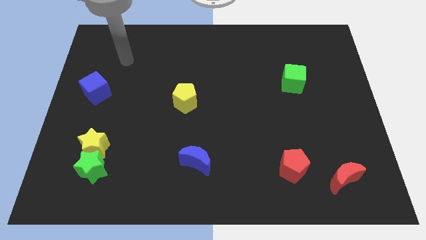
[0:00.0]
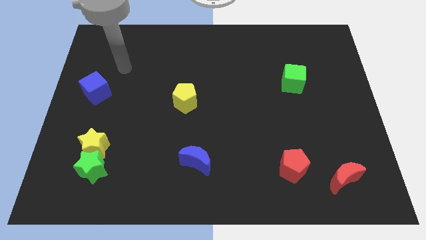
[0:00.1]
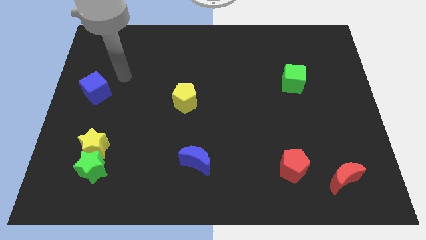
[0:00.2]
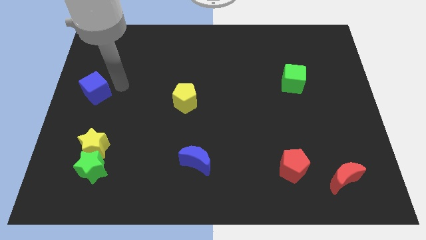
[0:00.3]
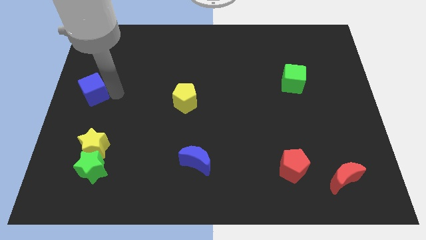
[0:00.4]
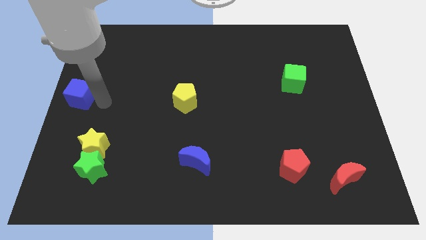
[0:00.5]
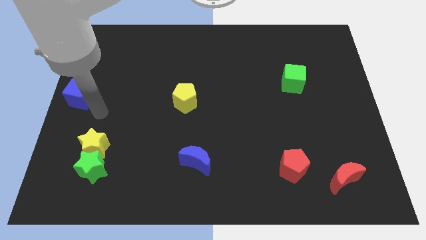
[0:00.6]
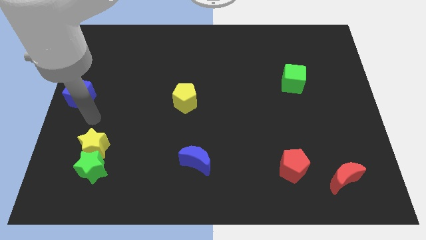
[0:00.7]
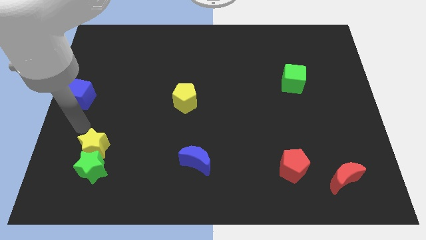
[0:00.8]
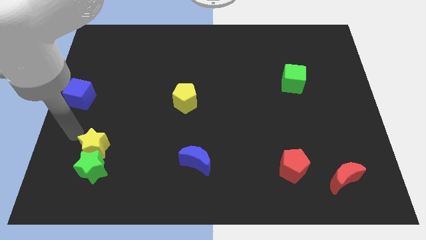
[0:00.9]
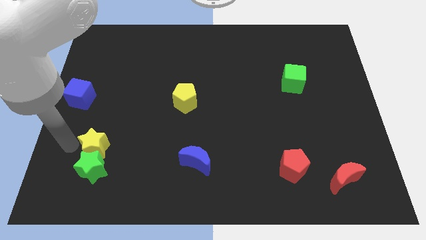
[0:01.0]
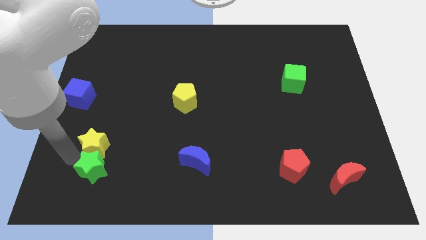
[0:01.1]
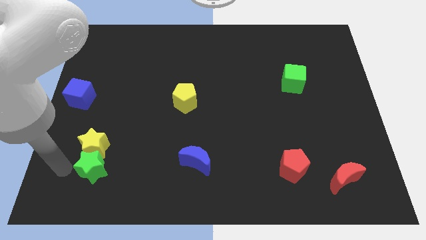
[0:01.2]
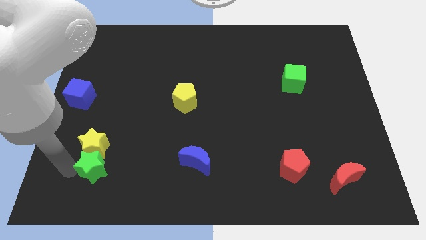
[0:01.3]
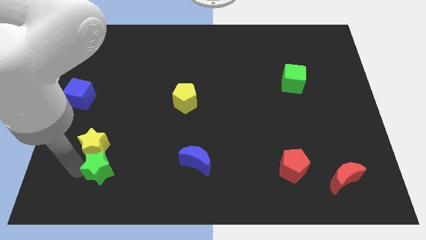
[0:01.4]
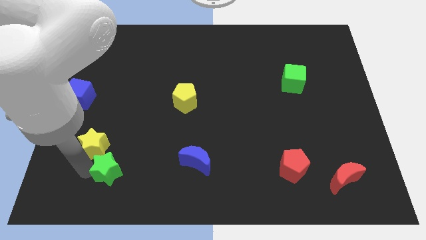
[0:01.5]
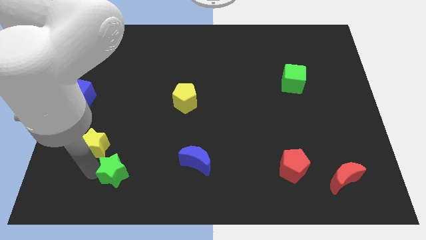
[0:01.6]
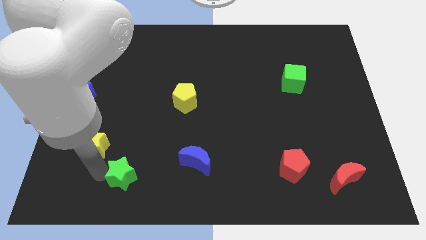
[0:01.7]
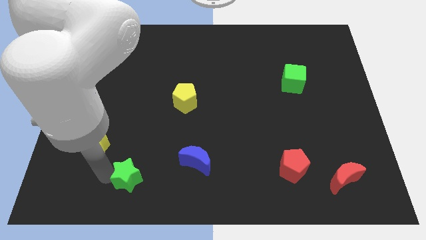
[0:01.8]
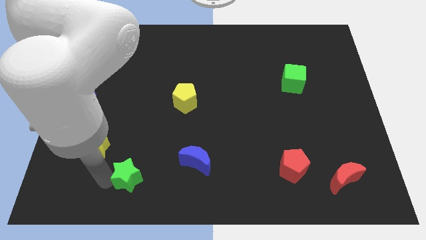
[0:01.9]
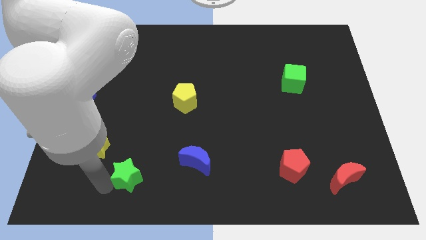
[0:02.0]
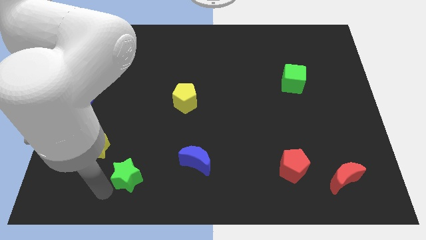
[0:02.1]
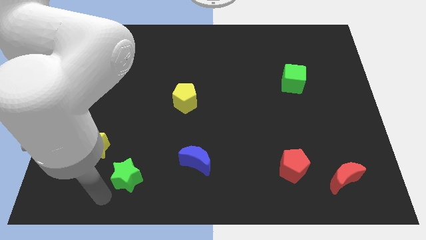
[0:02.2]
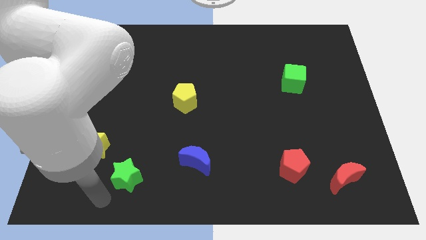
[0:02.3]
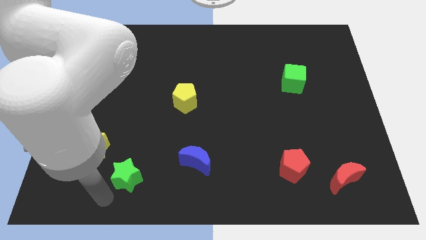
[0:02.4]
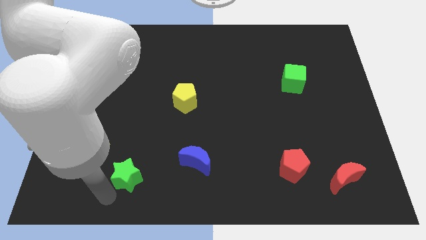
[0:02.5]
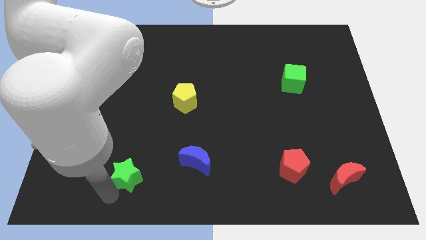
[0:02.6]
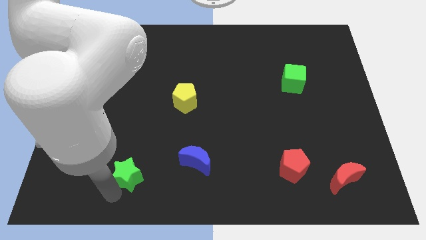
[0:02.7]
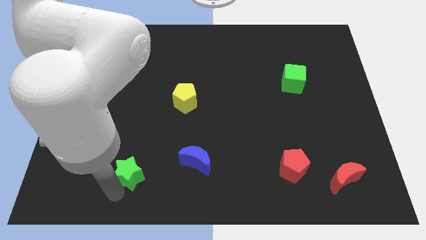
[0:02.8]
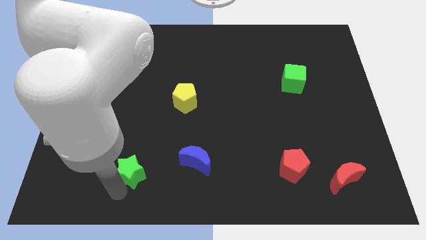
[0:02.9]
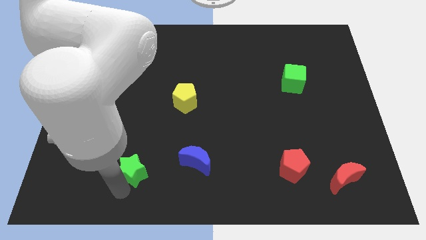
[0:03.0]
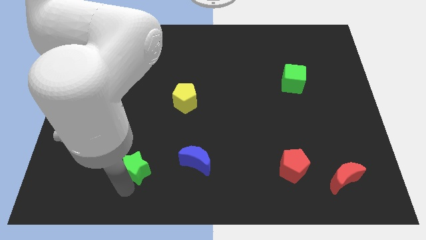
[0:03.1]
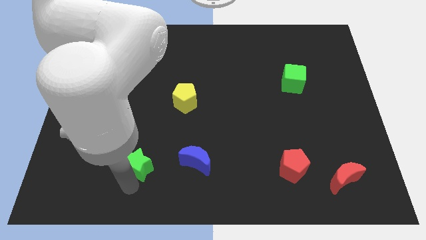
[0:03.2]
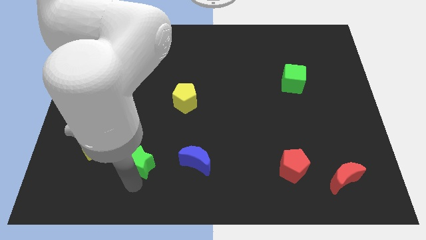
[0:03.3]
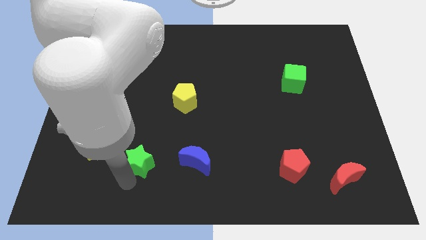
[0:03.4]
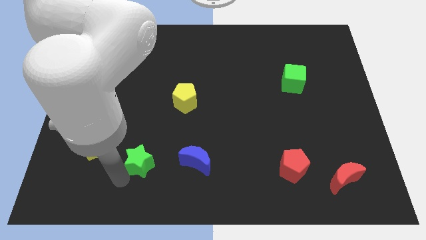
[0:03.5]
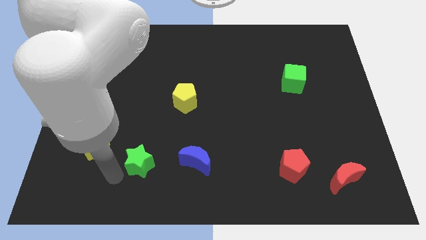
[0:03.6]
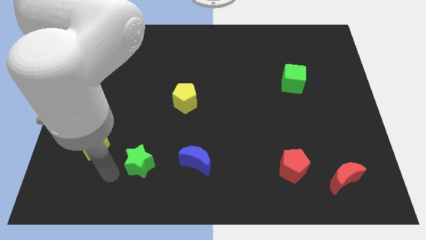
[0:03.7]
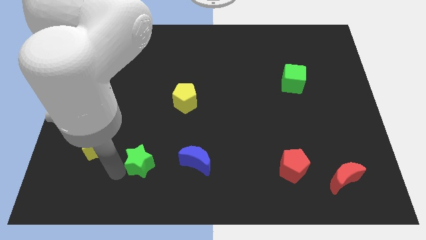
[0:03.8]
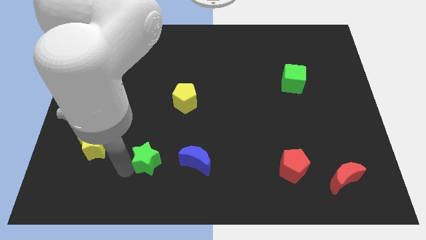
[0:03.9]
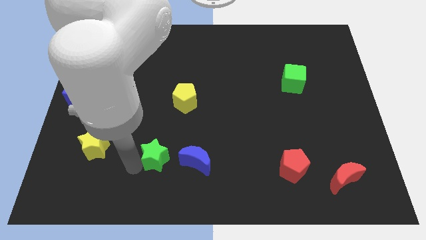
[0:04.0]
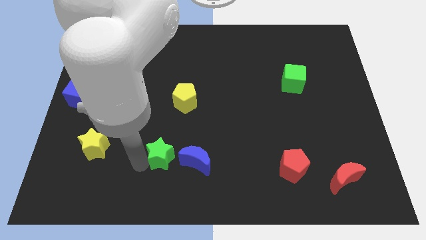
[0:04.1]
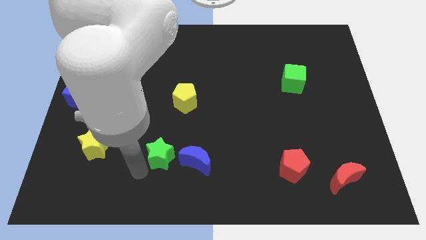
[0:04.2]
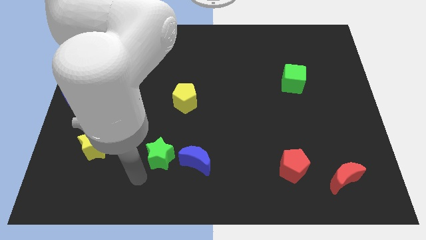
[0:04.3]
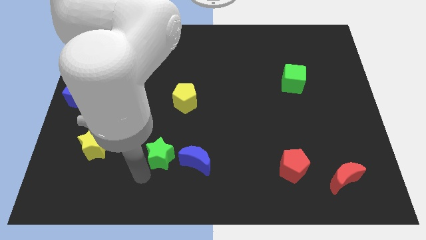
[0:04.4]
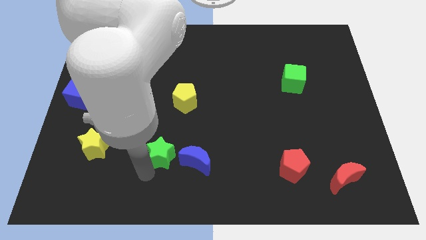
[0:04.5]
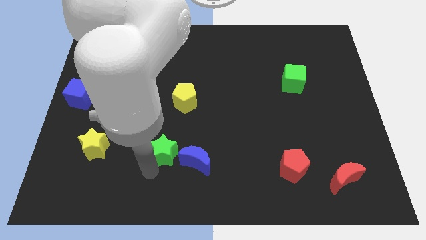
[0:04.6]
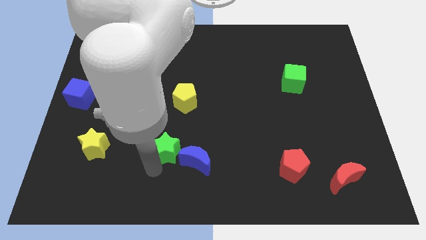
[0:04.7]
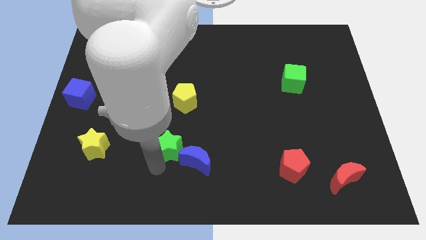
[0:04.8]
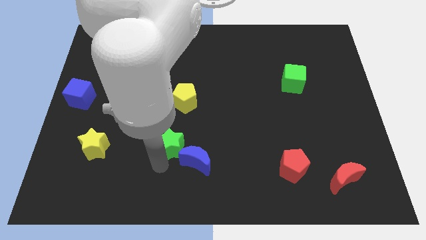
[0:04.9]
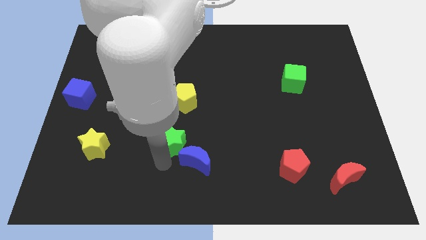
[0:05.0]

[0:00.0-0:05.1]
push the green star to the top of the blue moon

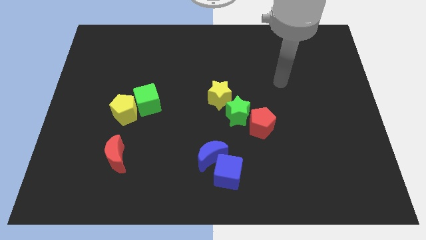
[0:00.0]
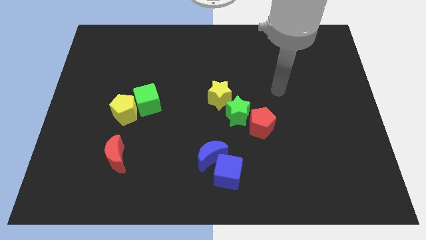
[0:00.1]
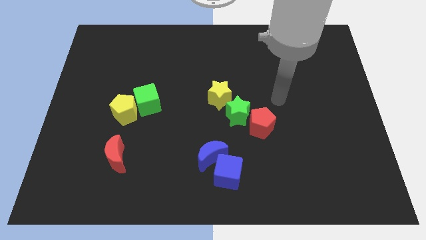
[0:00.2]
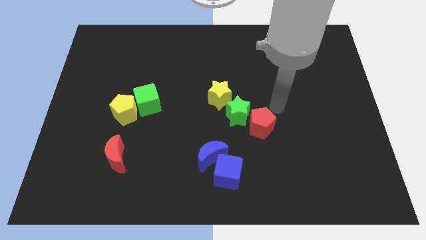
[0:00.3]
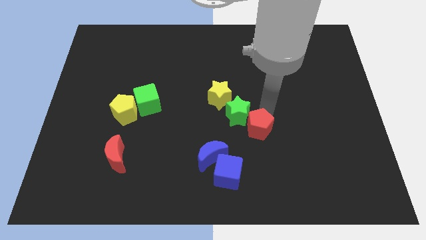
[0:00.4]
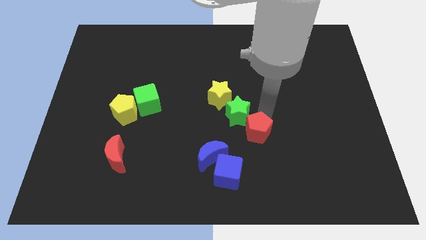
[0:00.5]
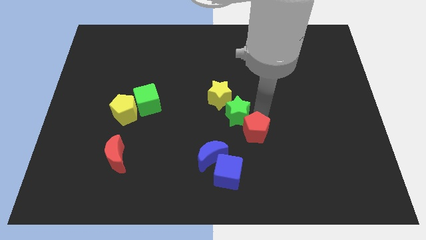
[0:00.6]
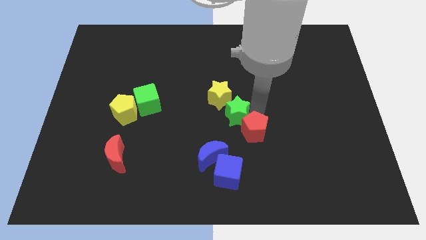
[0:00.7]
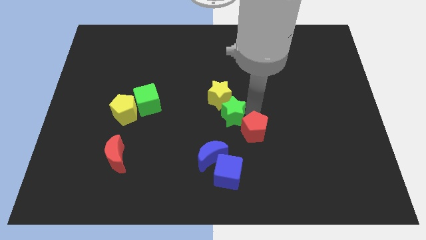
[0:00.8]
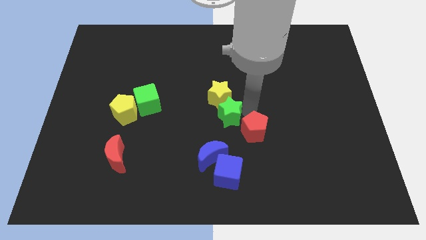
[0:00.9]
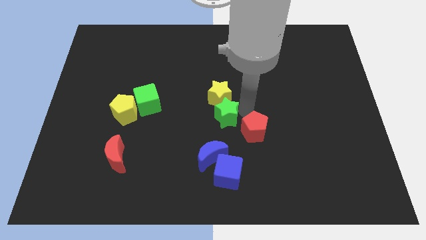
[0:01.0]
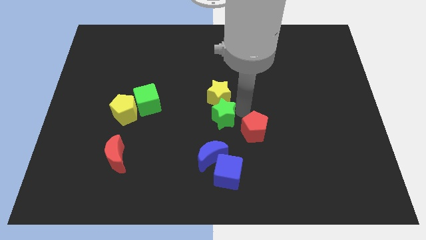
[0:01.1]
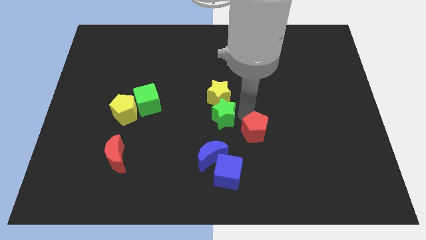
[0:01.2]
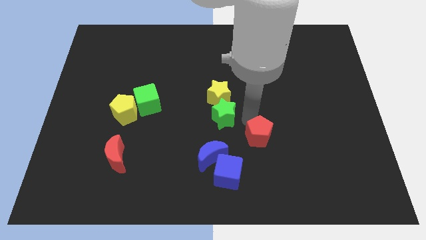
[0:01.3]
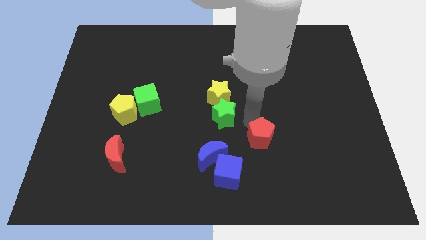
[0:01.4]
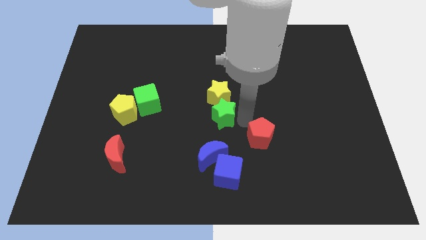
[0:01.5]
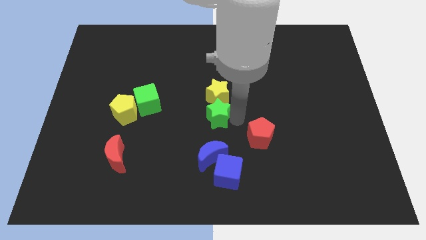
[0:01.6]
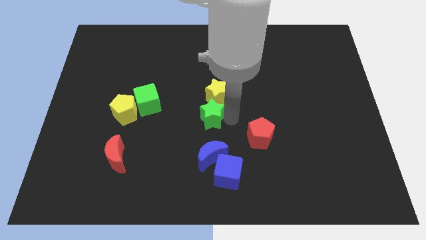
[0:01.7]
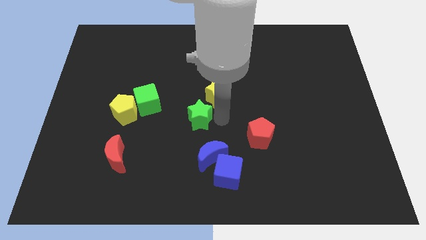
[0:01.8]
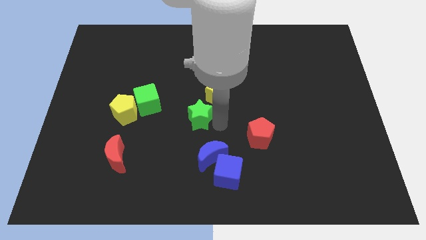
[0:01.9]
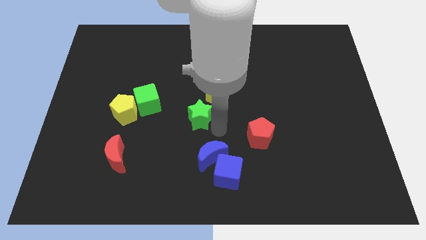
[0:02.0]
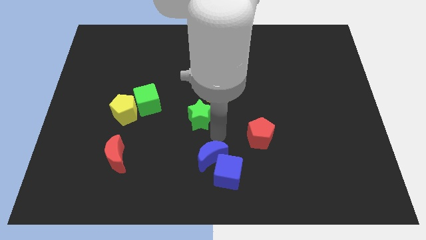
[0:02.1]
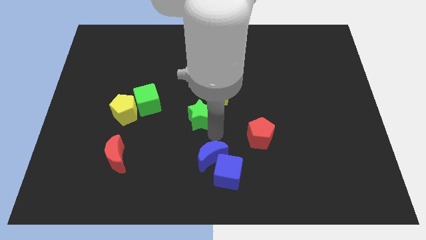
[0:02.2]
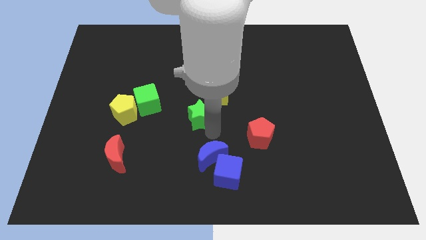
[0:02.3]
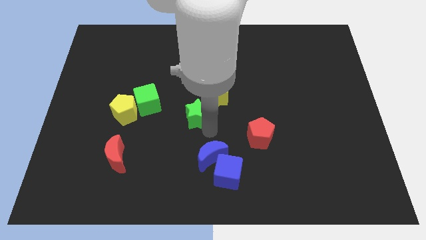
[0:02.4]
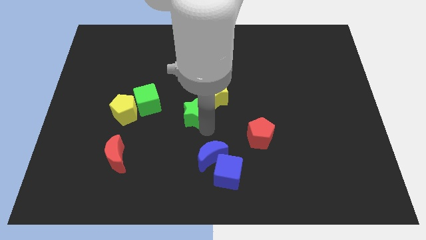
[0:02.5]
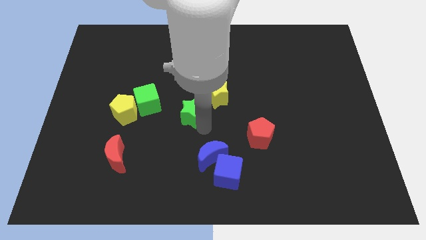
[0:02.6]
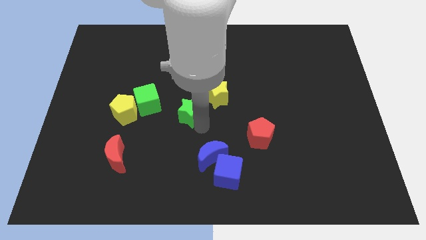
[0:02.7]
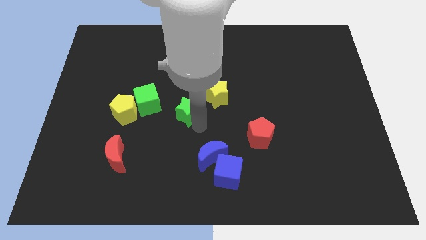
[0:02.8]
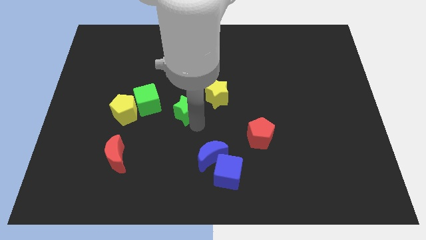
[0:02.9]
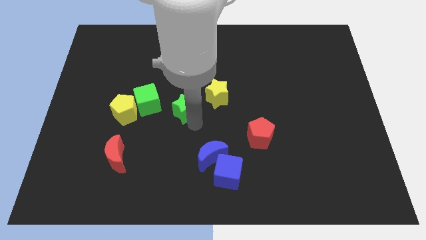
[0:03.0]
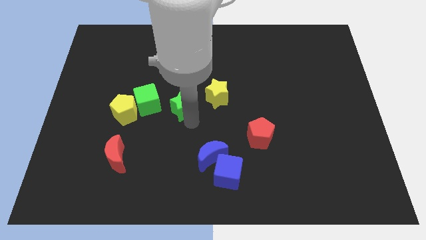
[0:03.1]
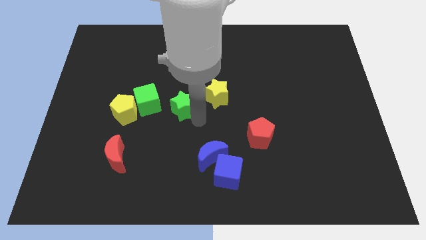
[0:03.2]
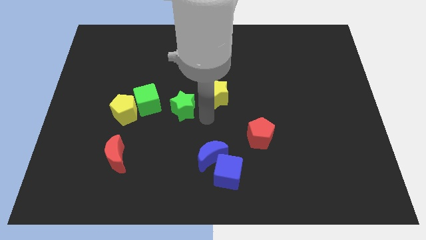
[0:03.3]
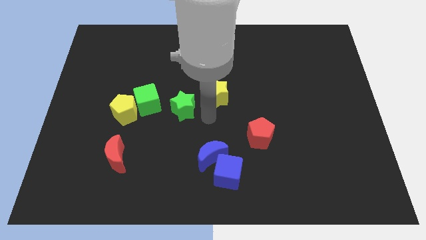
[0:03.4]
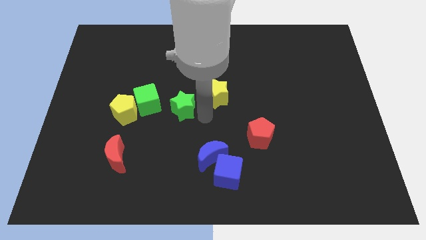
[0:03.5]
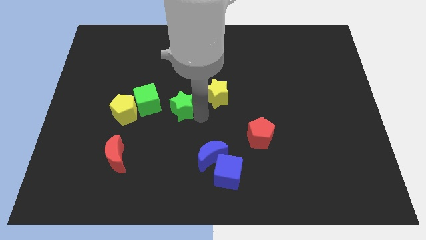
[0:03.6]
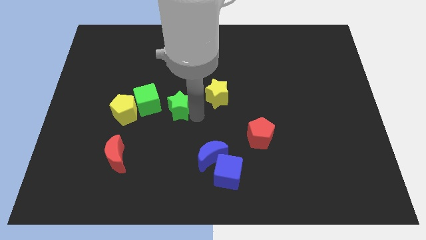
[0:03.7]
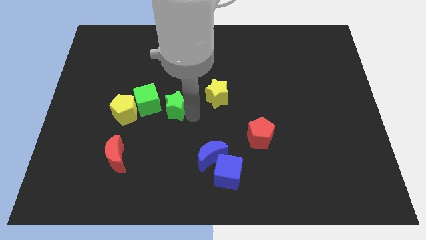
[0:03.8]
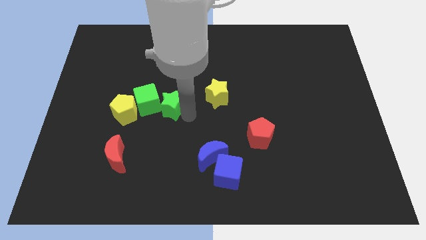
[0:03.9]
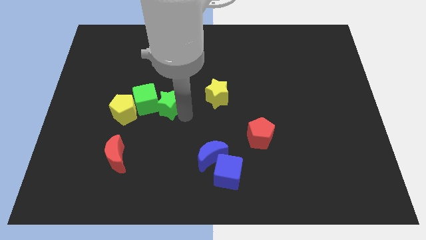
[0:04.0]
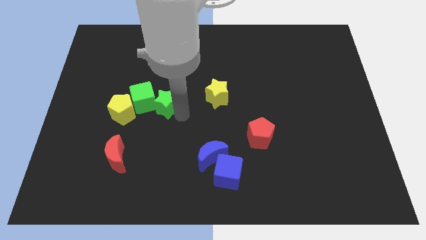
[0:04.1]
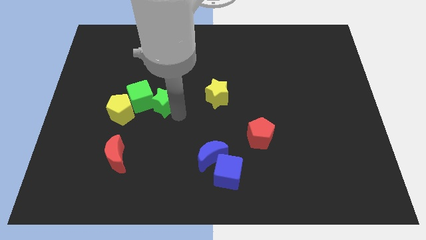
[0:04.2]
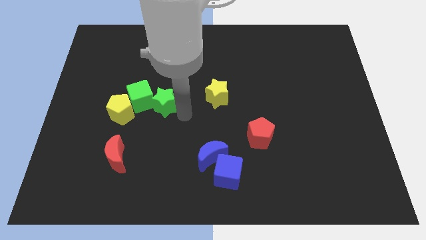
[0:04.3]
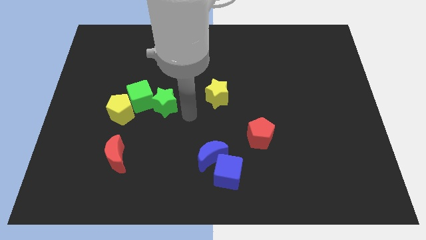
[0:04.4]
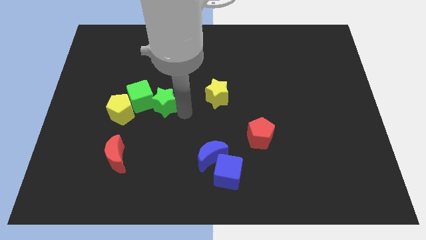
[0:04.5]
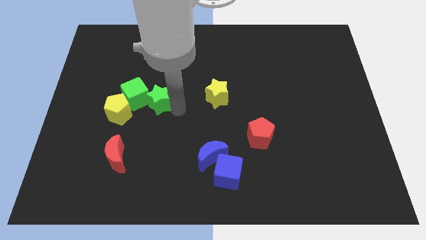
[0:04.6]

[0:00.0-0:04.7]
push the green star diagonally up and to the right of the yellow pentagon
